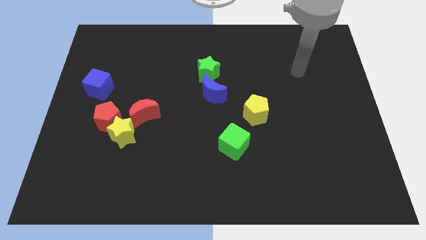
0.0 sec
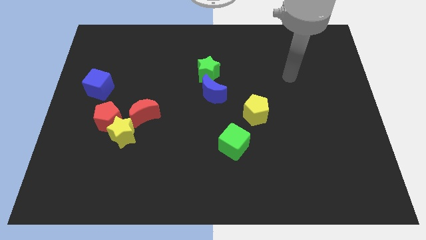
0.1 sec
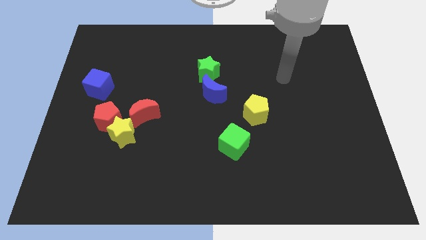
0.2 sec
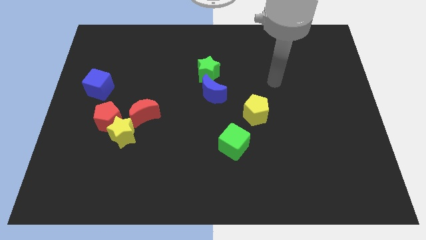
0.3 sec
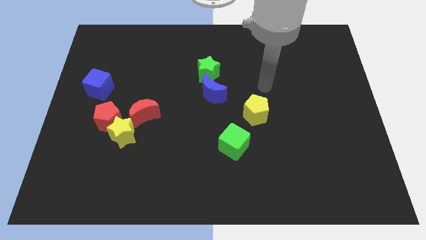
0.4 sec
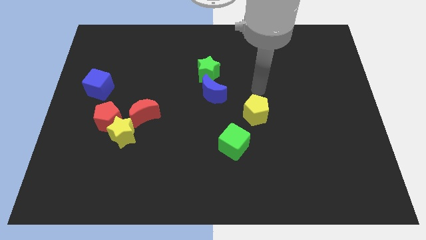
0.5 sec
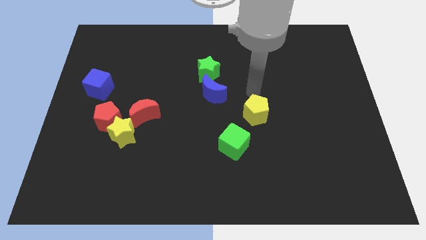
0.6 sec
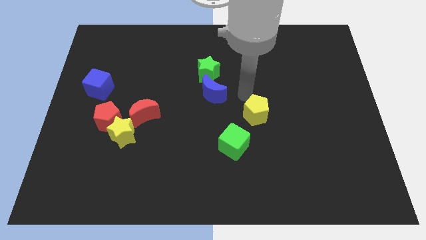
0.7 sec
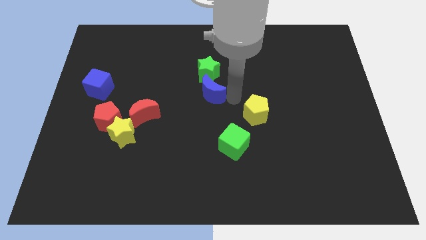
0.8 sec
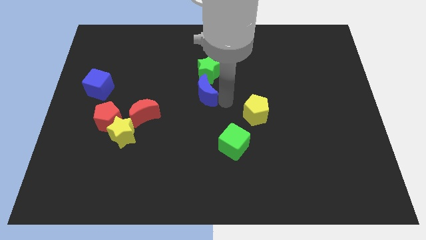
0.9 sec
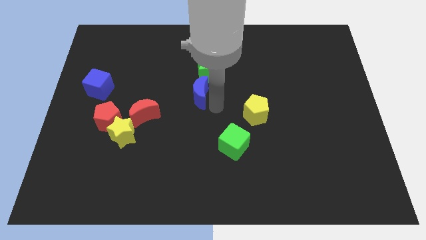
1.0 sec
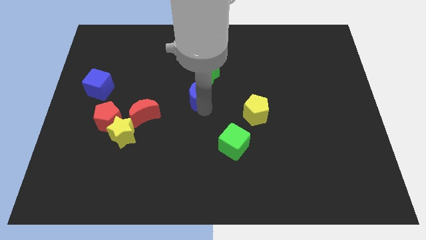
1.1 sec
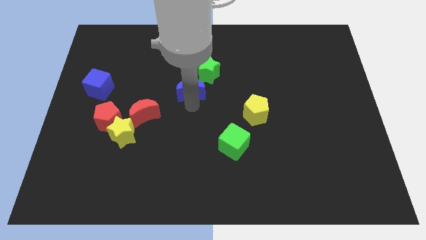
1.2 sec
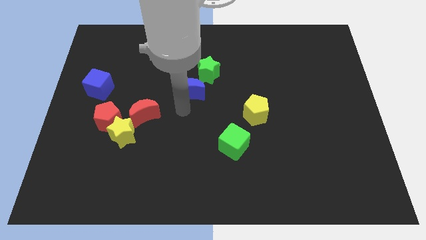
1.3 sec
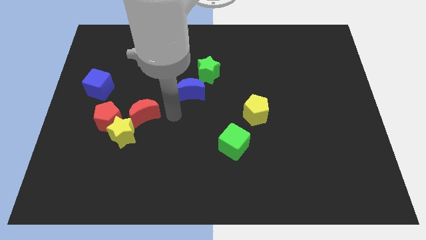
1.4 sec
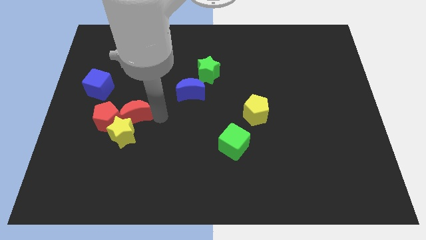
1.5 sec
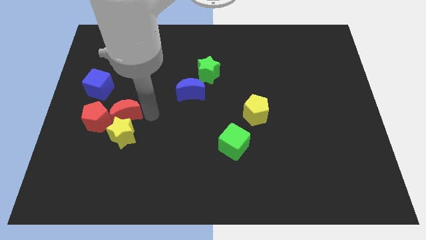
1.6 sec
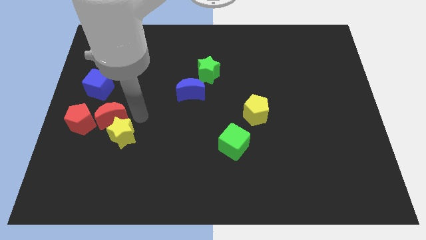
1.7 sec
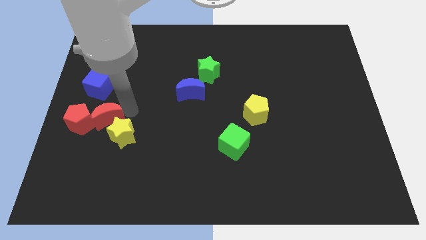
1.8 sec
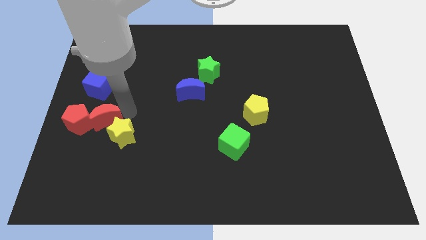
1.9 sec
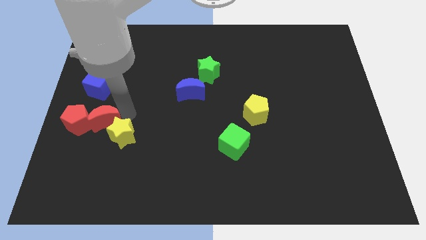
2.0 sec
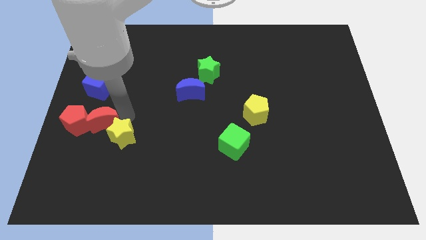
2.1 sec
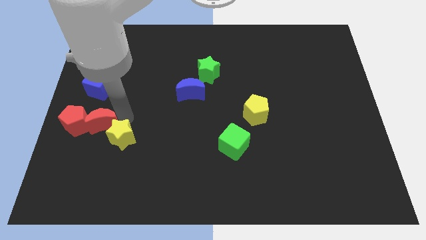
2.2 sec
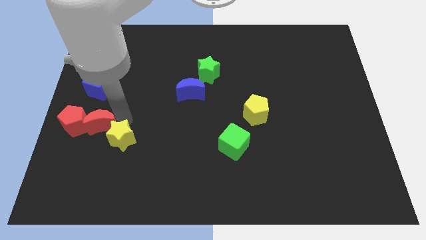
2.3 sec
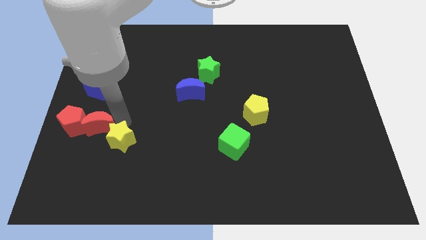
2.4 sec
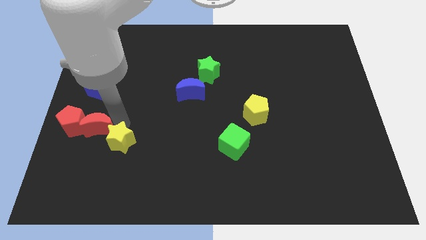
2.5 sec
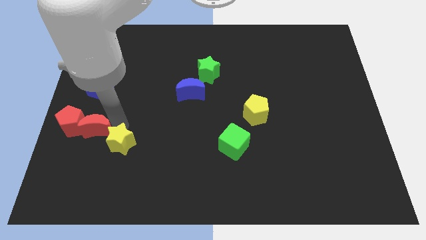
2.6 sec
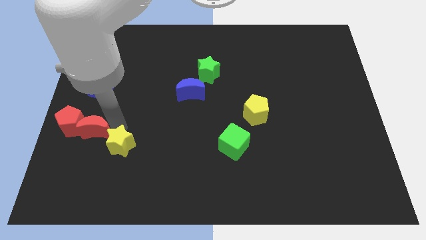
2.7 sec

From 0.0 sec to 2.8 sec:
move the yellow star away from the red pentagon and red moon

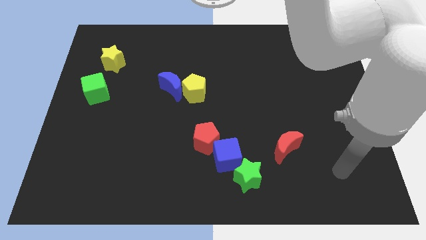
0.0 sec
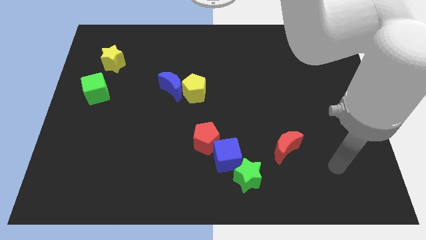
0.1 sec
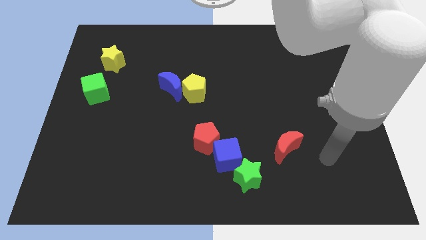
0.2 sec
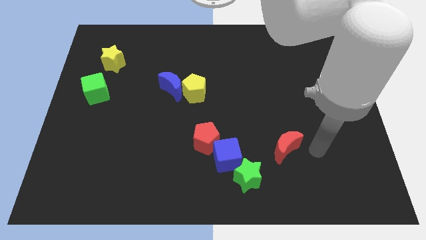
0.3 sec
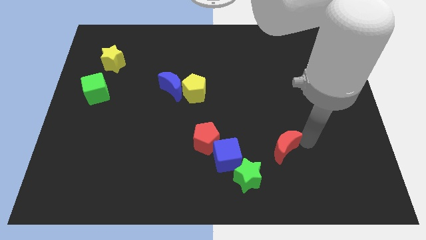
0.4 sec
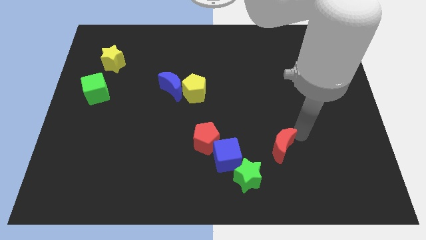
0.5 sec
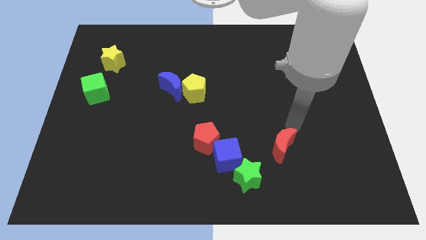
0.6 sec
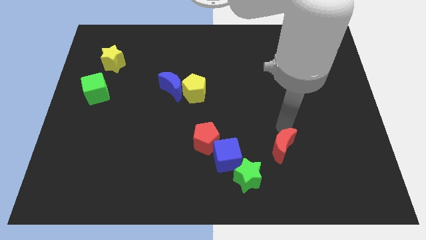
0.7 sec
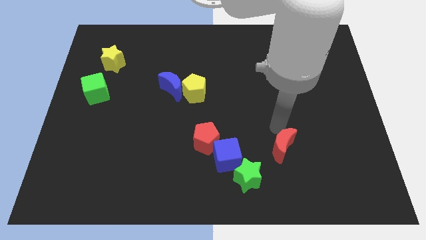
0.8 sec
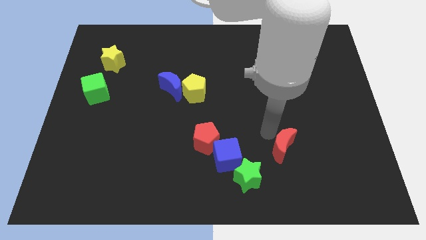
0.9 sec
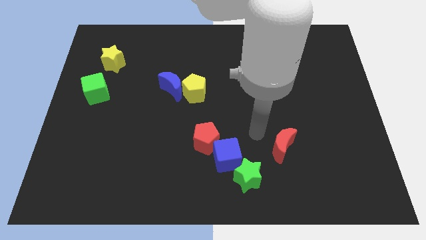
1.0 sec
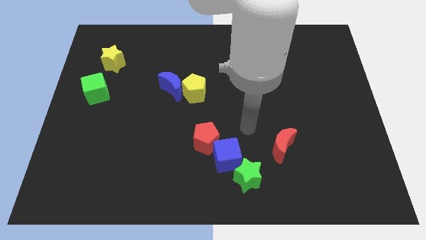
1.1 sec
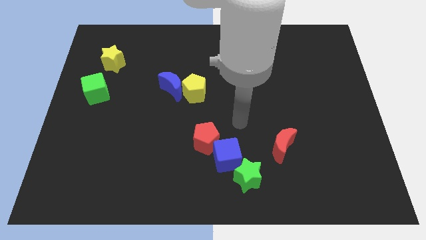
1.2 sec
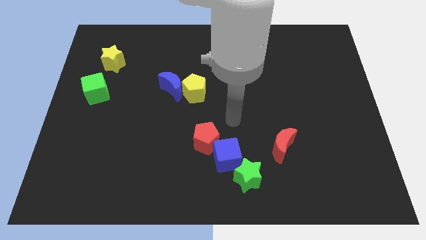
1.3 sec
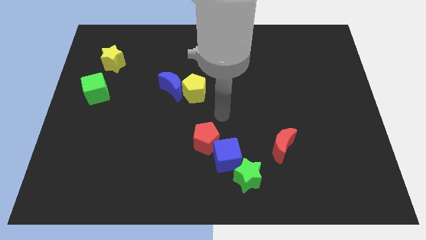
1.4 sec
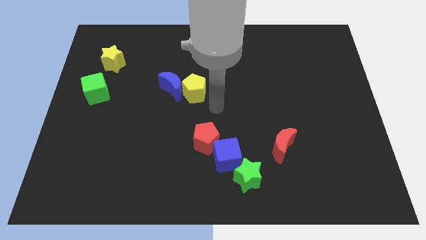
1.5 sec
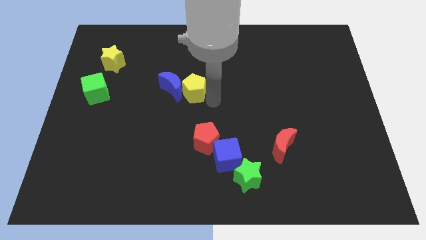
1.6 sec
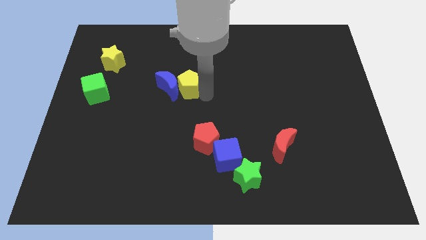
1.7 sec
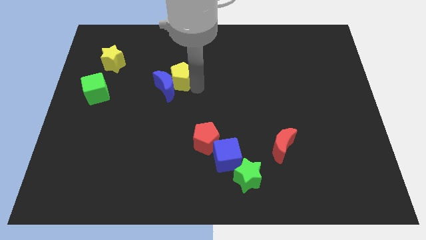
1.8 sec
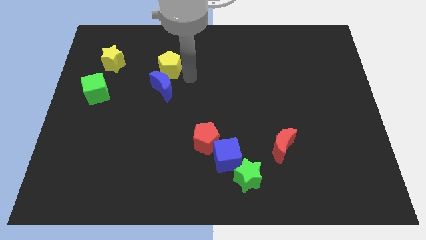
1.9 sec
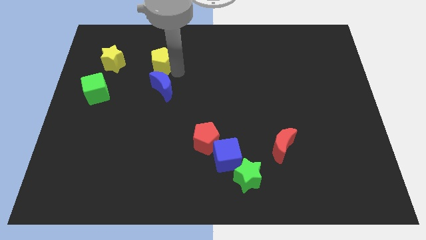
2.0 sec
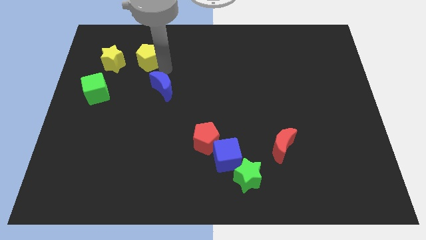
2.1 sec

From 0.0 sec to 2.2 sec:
pull the blue moon apart from the yellow pentagon

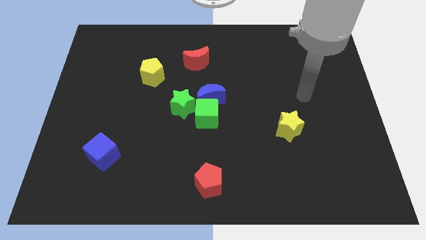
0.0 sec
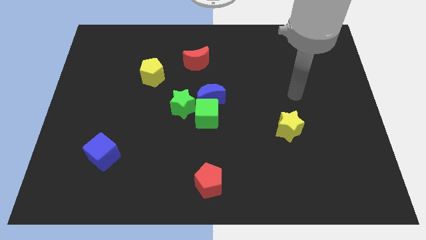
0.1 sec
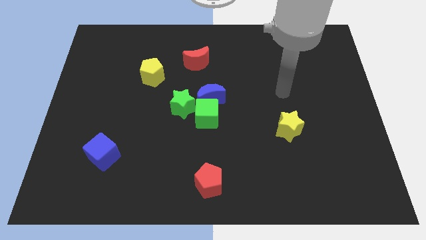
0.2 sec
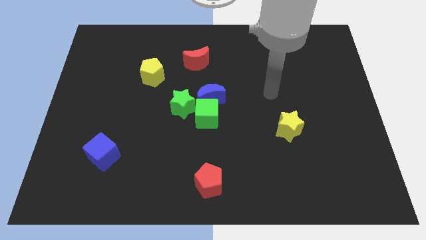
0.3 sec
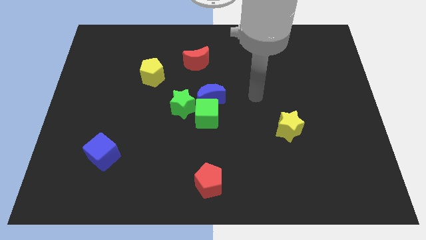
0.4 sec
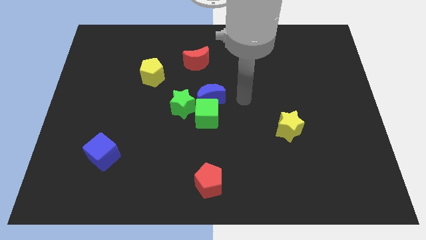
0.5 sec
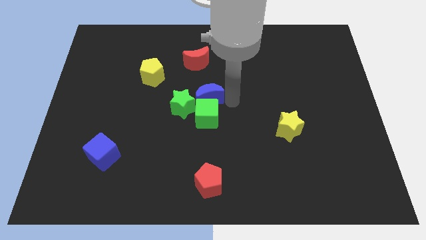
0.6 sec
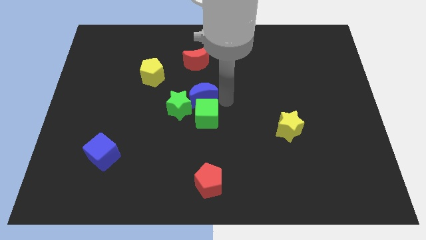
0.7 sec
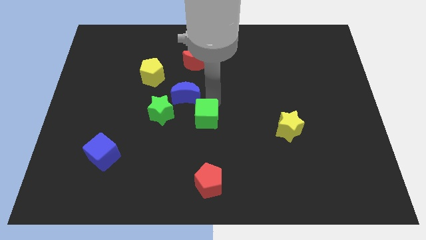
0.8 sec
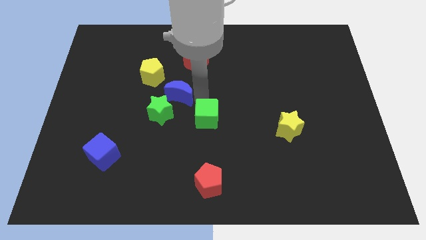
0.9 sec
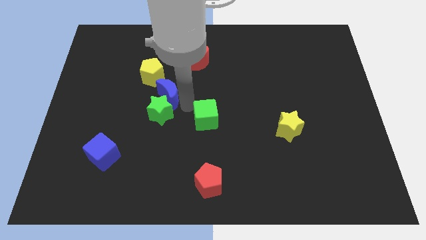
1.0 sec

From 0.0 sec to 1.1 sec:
pull the green cube apart from the blue moon and green star

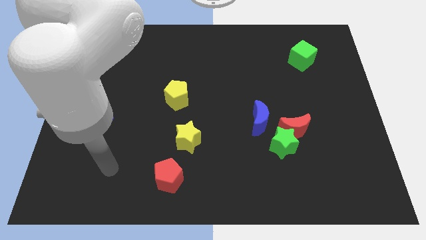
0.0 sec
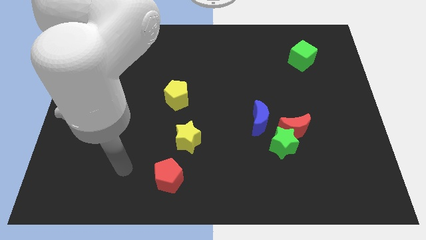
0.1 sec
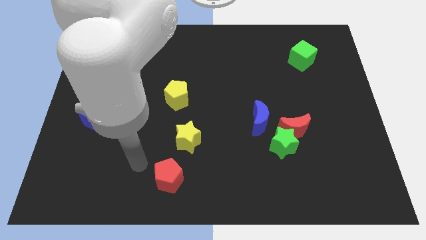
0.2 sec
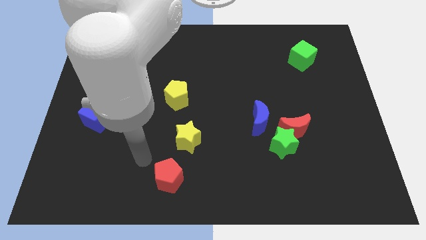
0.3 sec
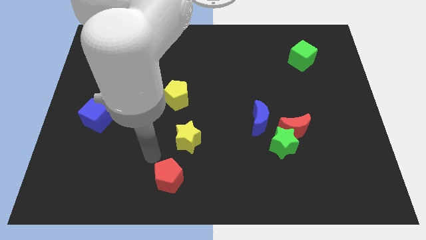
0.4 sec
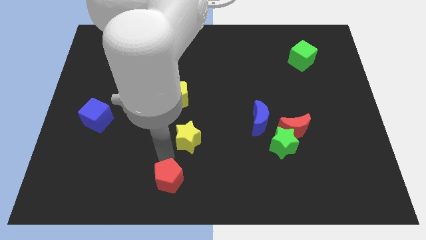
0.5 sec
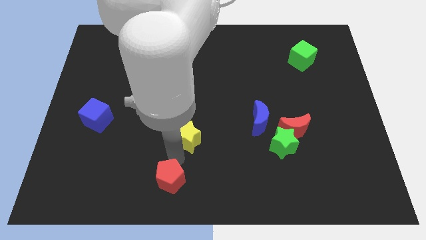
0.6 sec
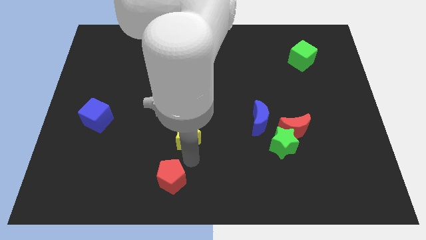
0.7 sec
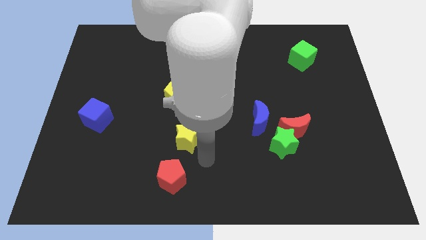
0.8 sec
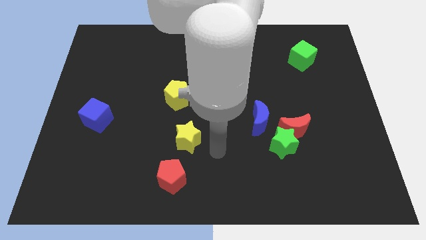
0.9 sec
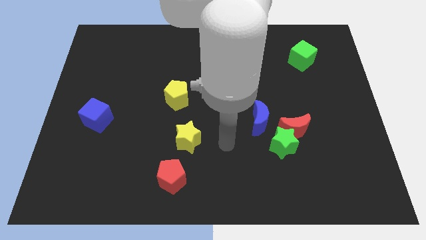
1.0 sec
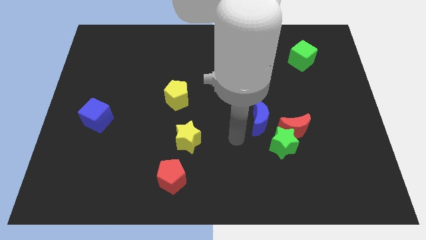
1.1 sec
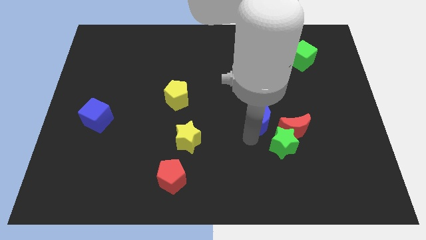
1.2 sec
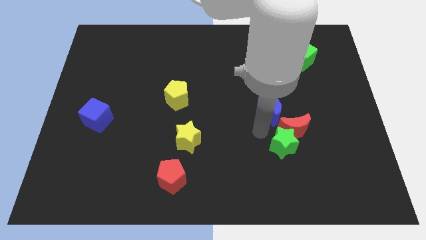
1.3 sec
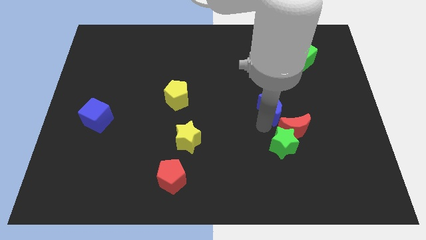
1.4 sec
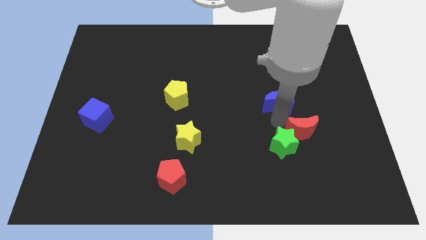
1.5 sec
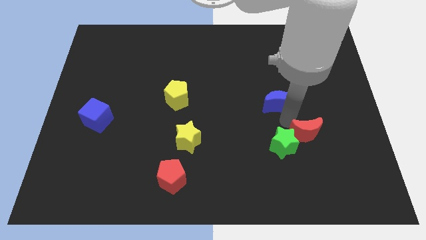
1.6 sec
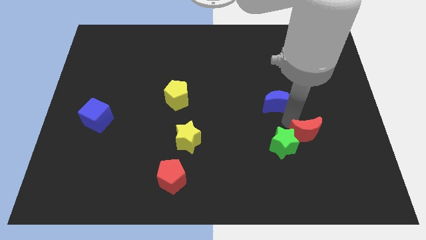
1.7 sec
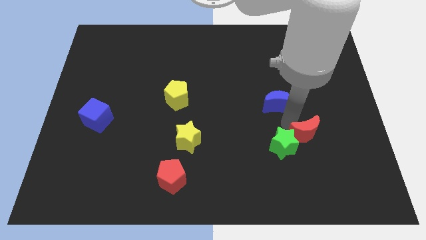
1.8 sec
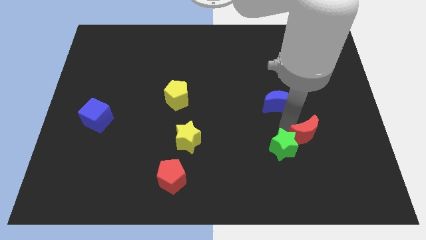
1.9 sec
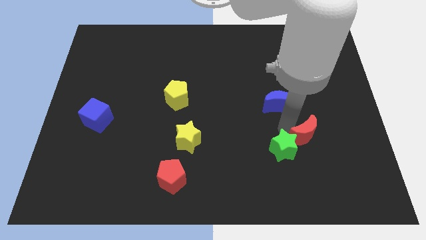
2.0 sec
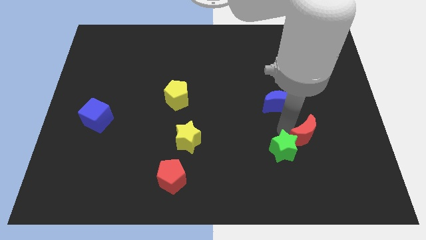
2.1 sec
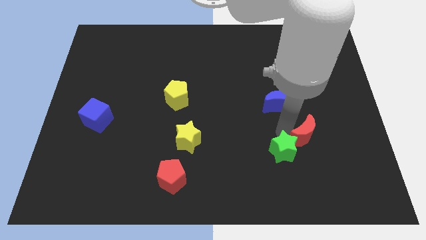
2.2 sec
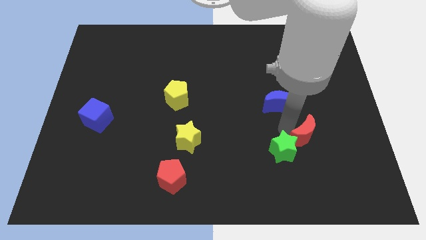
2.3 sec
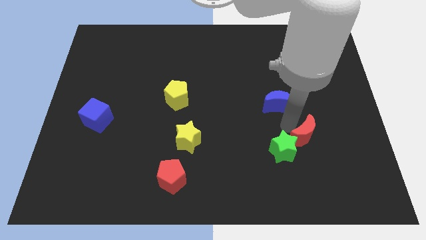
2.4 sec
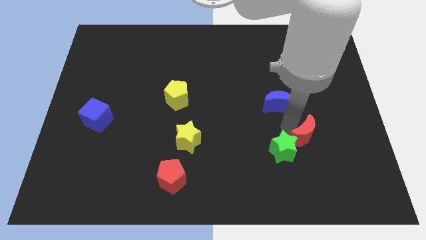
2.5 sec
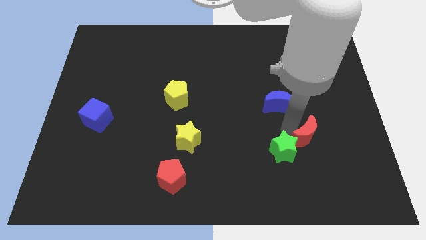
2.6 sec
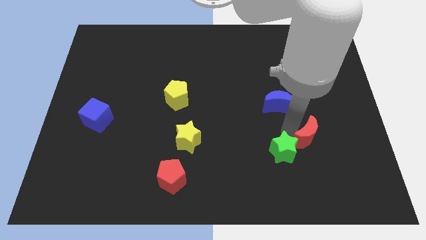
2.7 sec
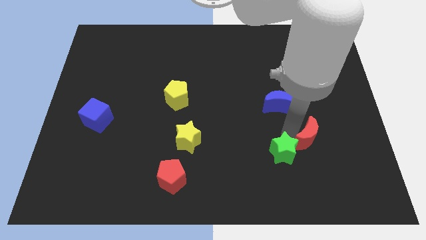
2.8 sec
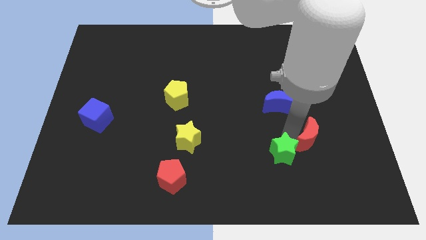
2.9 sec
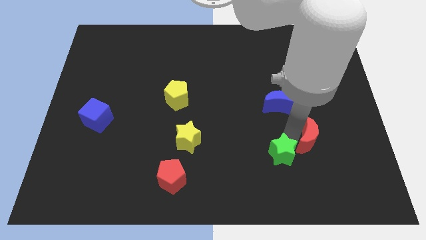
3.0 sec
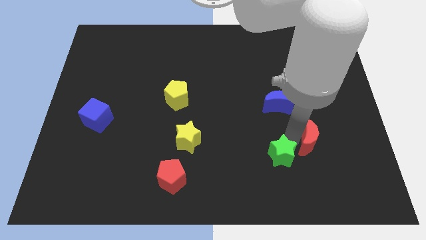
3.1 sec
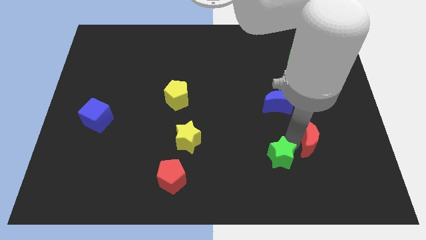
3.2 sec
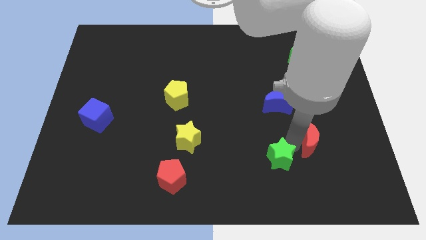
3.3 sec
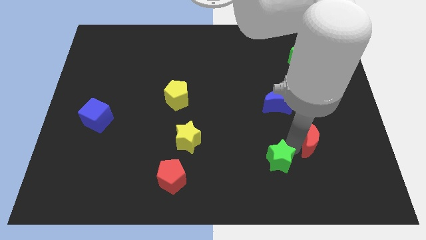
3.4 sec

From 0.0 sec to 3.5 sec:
separate the green star from the red moon and blue moon

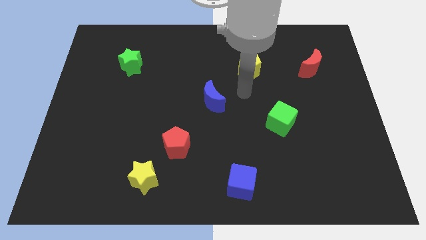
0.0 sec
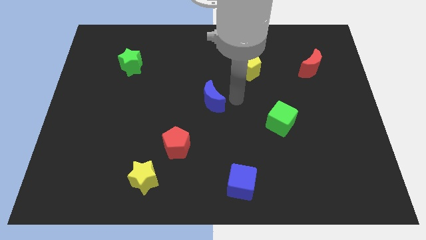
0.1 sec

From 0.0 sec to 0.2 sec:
pull the red pentagon apart from the yellow star
